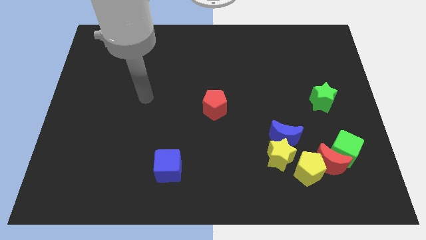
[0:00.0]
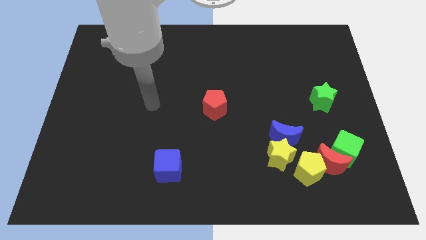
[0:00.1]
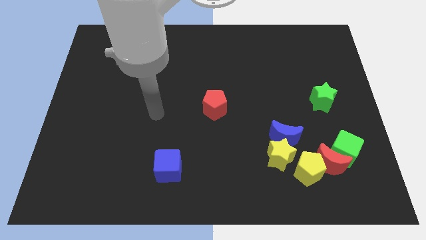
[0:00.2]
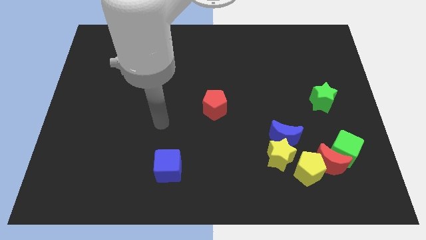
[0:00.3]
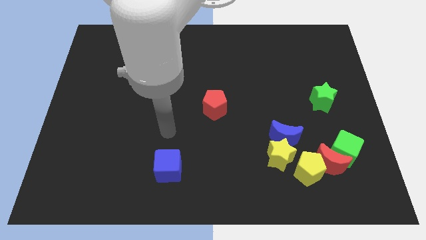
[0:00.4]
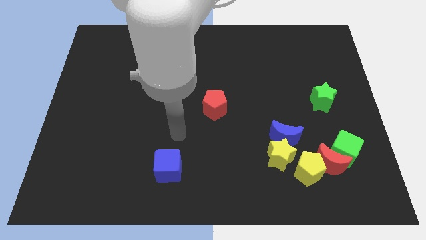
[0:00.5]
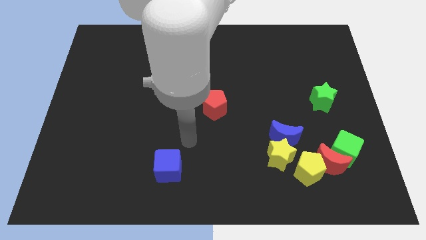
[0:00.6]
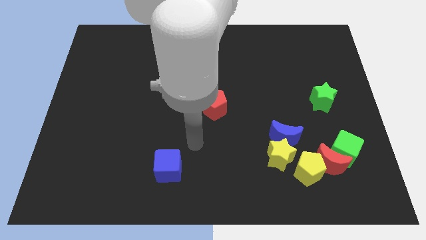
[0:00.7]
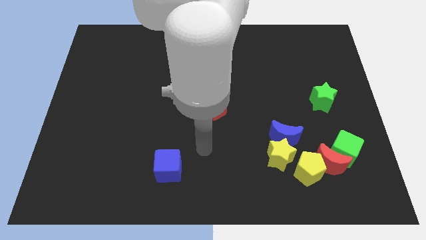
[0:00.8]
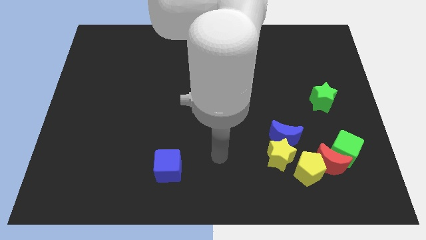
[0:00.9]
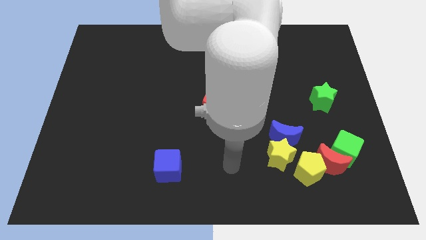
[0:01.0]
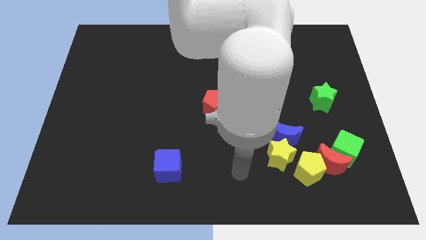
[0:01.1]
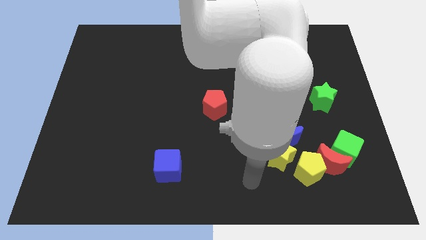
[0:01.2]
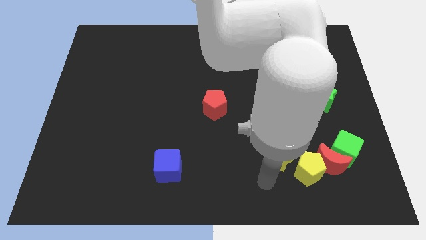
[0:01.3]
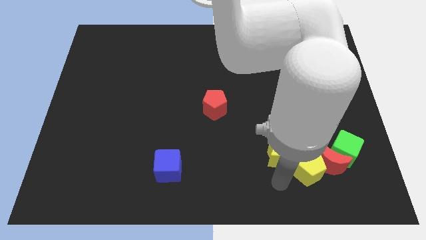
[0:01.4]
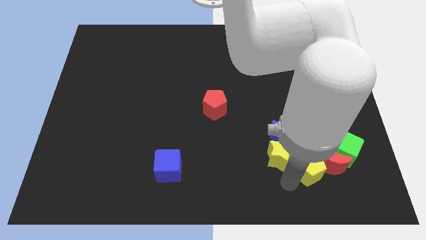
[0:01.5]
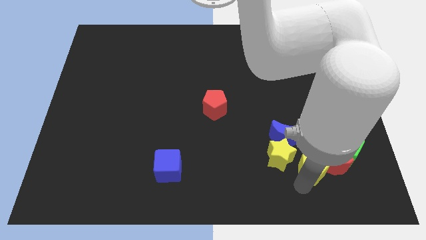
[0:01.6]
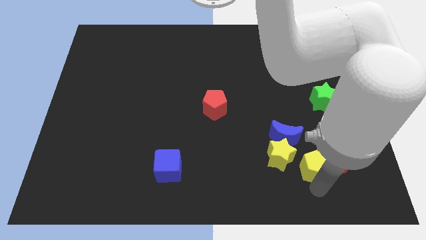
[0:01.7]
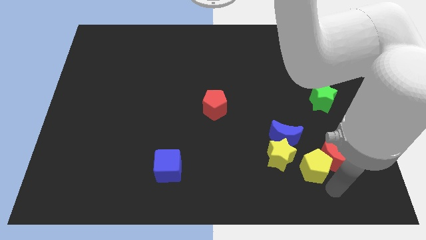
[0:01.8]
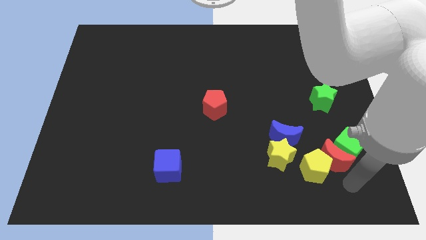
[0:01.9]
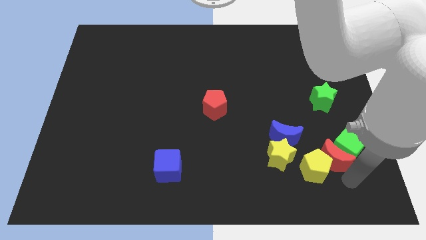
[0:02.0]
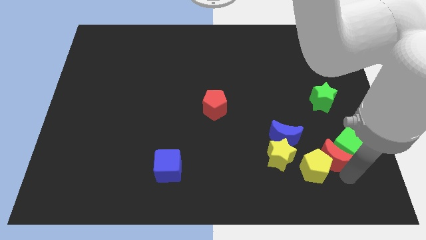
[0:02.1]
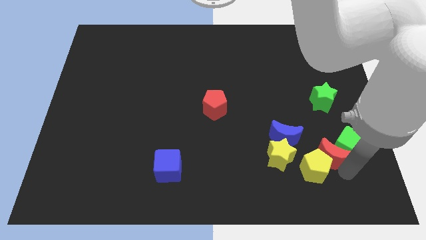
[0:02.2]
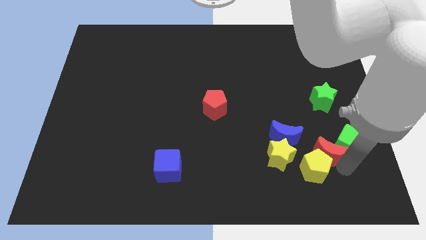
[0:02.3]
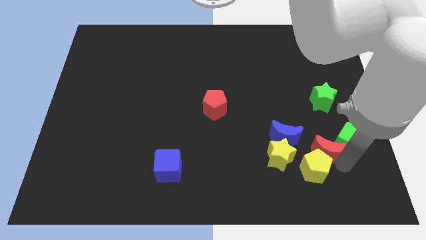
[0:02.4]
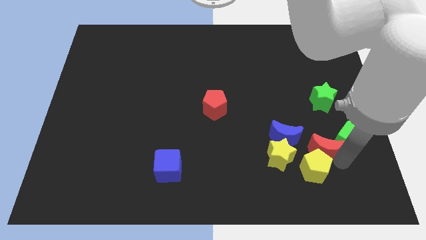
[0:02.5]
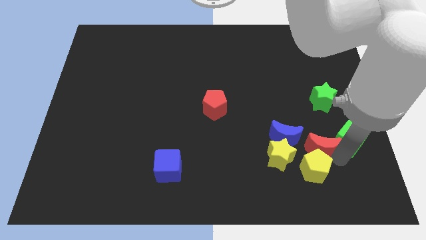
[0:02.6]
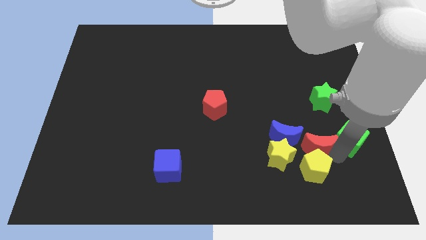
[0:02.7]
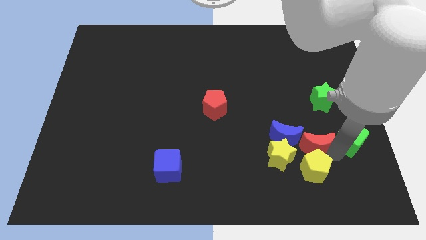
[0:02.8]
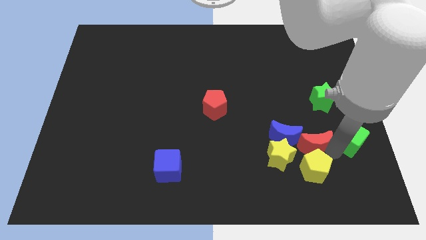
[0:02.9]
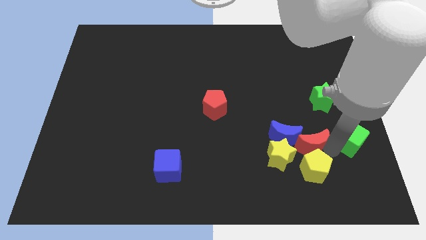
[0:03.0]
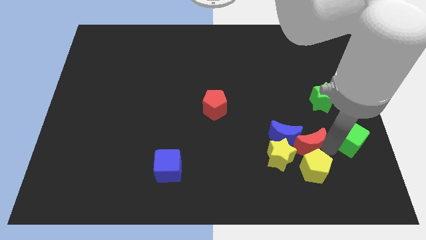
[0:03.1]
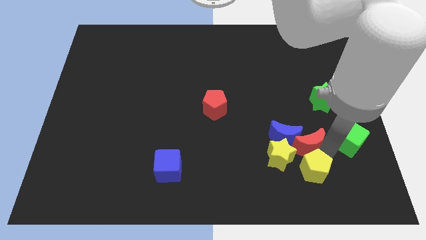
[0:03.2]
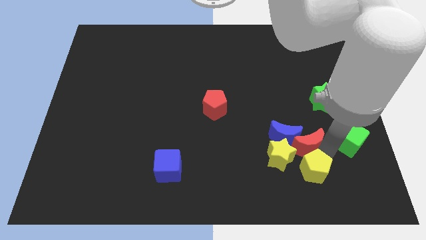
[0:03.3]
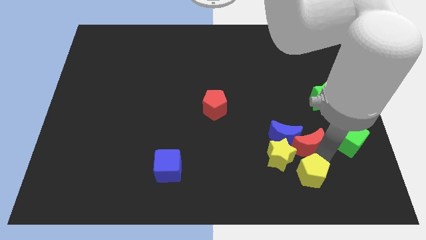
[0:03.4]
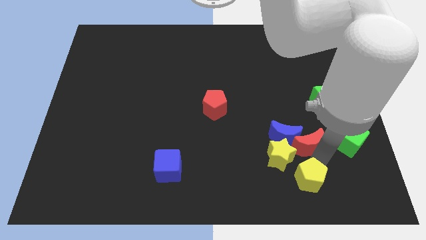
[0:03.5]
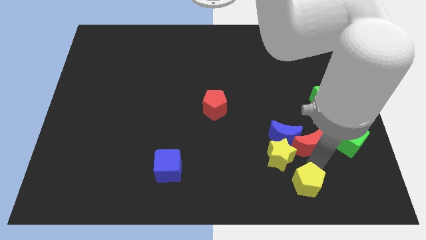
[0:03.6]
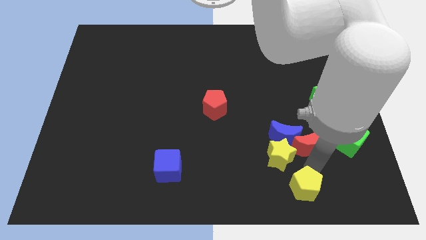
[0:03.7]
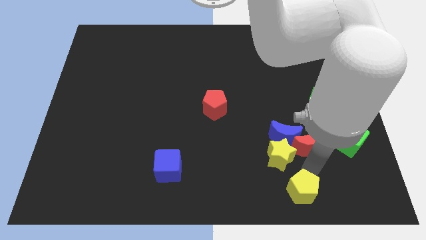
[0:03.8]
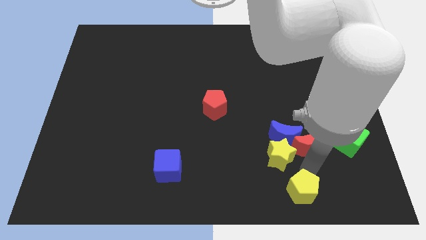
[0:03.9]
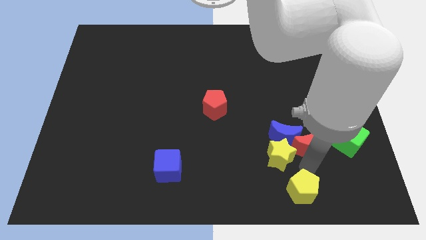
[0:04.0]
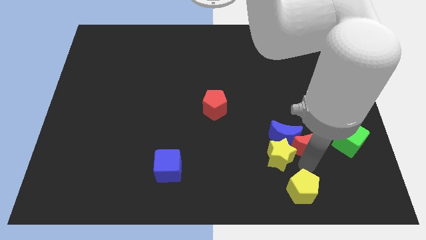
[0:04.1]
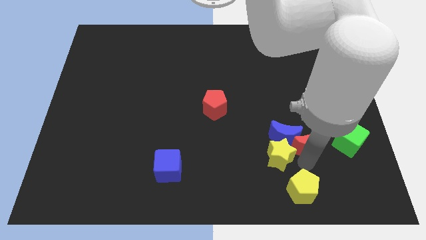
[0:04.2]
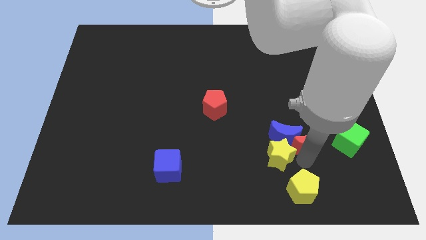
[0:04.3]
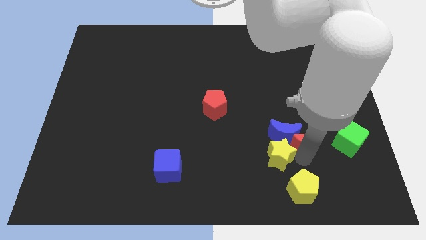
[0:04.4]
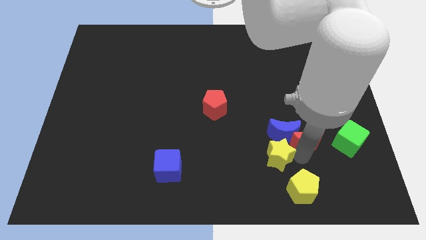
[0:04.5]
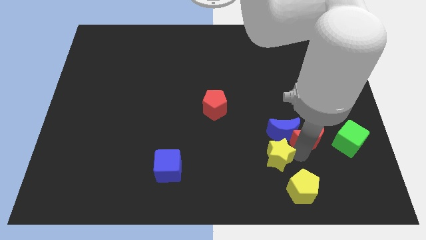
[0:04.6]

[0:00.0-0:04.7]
move the red moon a little bit upwards and then left

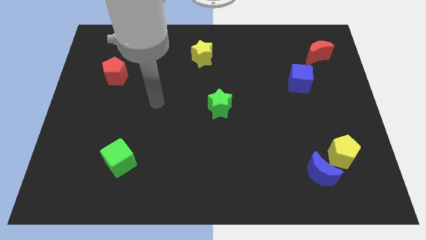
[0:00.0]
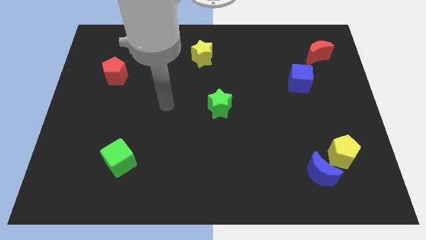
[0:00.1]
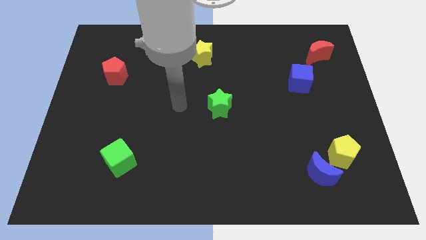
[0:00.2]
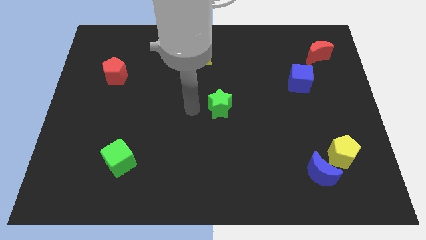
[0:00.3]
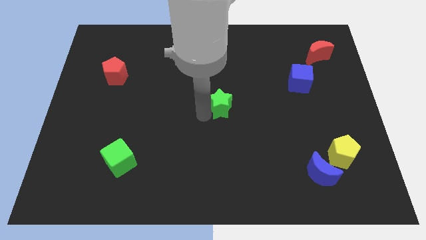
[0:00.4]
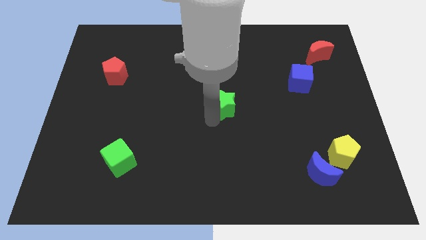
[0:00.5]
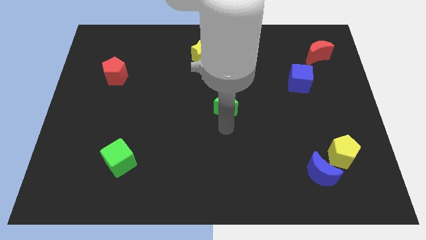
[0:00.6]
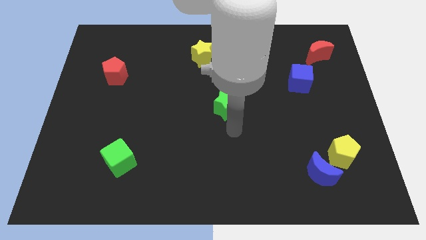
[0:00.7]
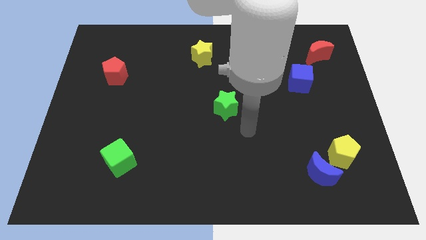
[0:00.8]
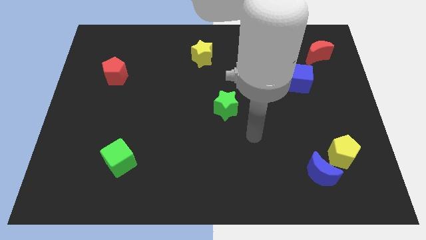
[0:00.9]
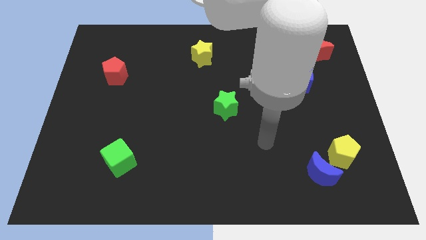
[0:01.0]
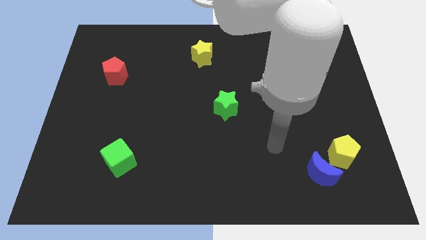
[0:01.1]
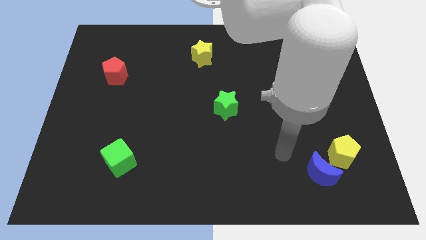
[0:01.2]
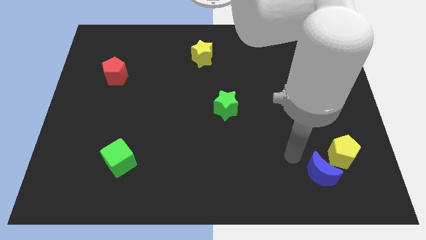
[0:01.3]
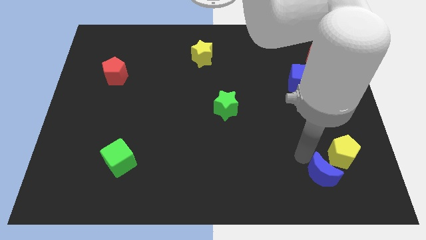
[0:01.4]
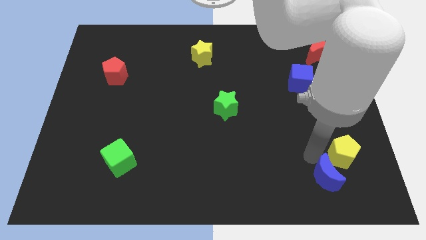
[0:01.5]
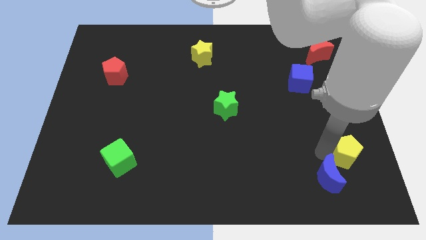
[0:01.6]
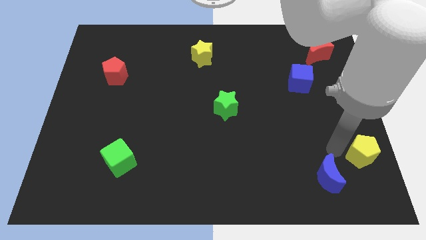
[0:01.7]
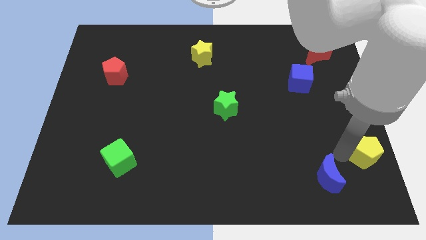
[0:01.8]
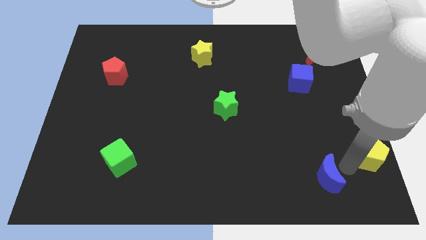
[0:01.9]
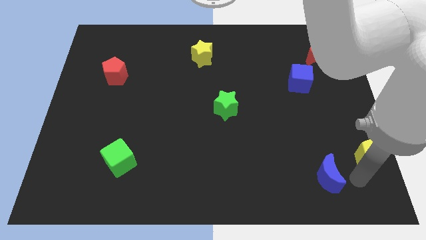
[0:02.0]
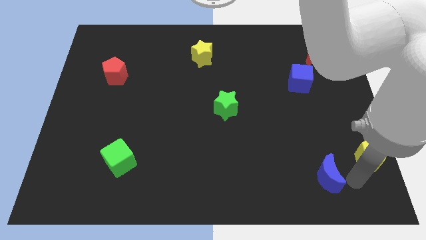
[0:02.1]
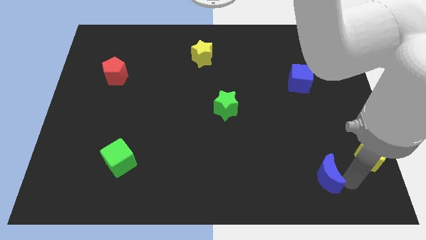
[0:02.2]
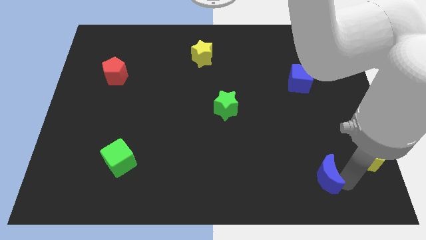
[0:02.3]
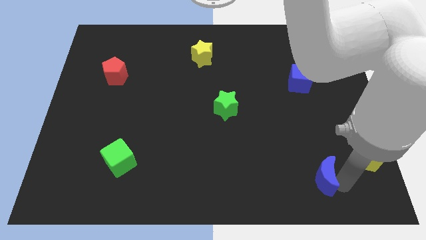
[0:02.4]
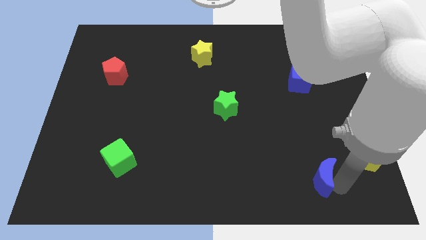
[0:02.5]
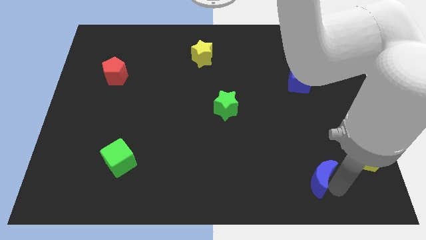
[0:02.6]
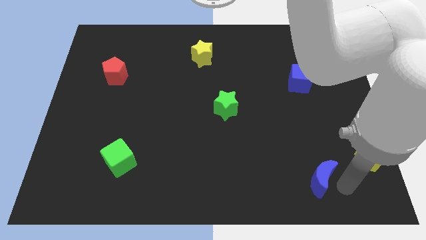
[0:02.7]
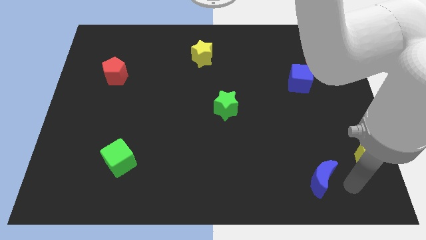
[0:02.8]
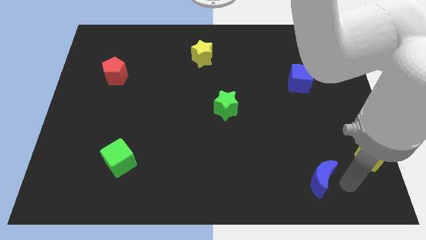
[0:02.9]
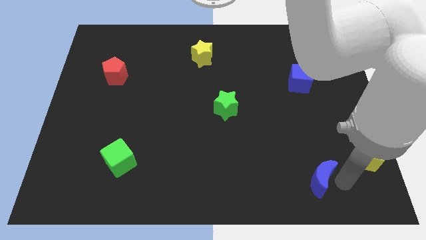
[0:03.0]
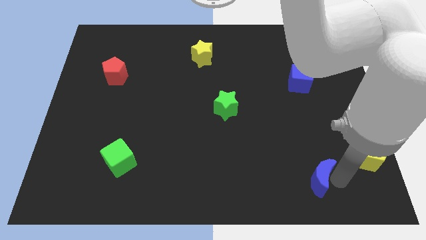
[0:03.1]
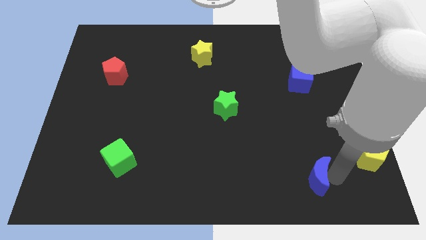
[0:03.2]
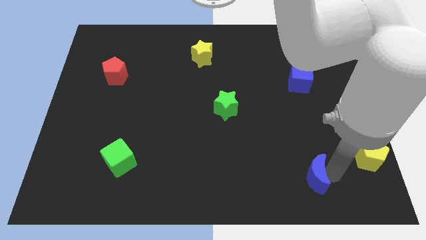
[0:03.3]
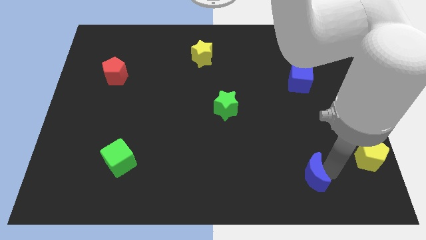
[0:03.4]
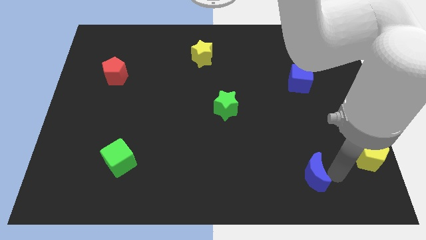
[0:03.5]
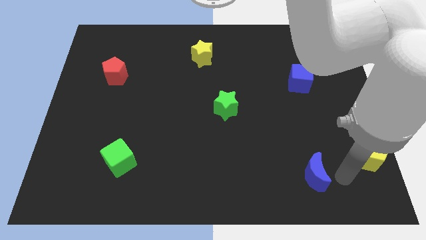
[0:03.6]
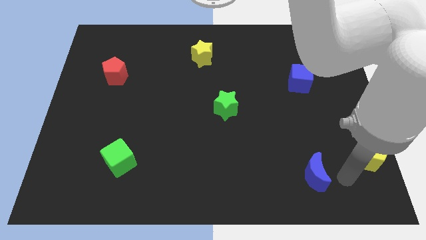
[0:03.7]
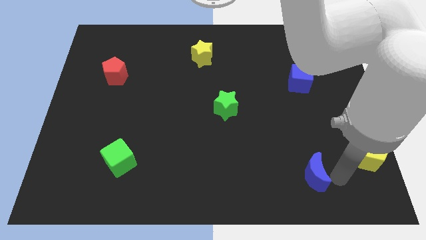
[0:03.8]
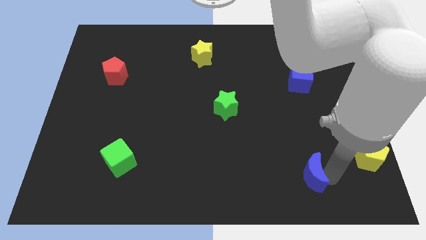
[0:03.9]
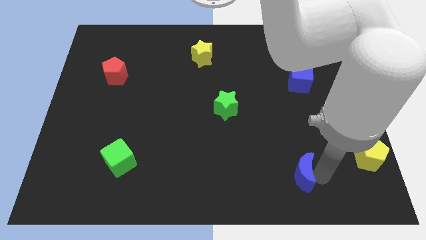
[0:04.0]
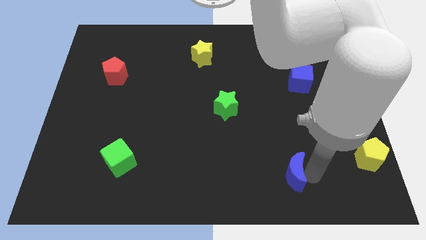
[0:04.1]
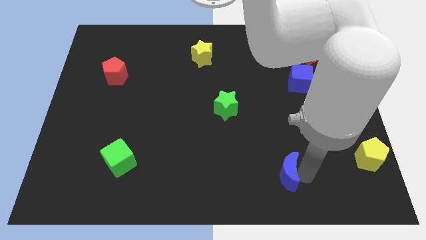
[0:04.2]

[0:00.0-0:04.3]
push the blue moon to the left a little
